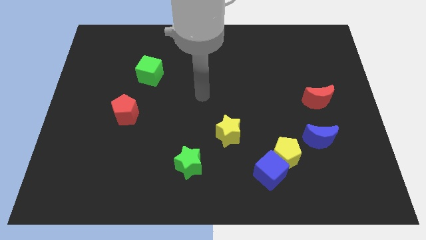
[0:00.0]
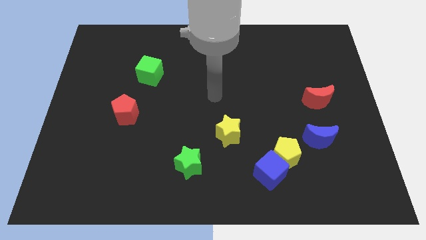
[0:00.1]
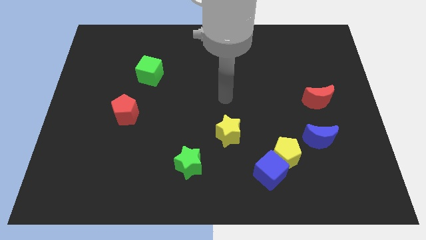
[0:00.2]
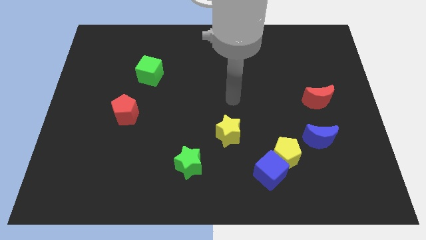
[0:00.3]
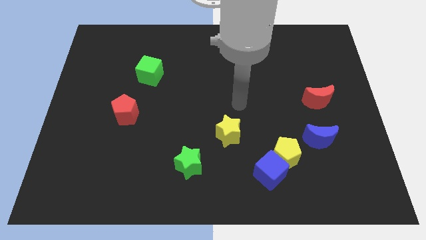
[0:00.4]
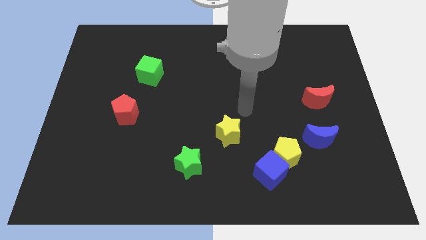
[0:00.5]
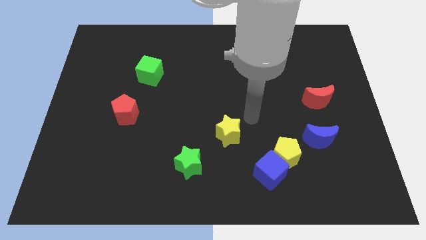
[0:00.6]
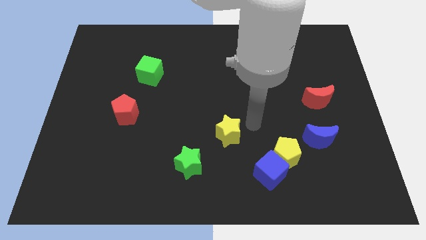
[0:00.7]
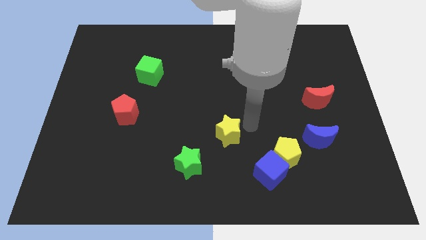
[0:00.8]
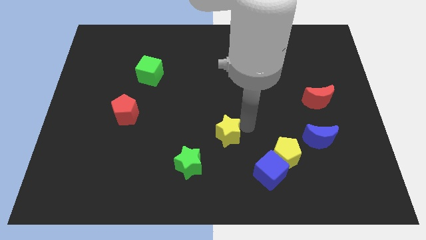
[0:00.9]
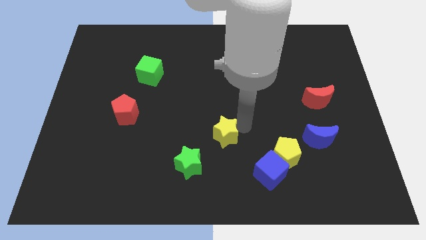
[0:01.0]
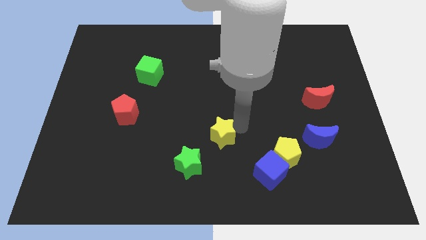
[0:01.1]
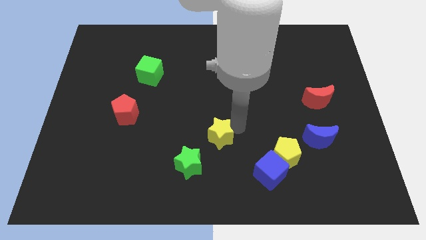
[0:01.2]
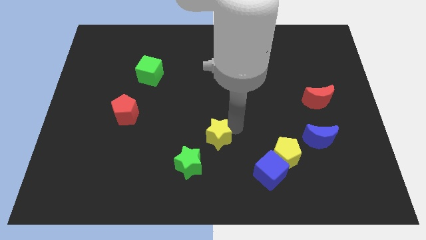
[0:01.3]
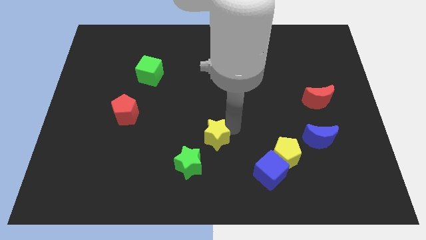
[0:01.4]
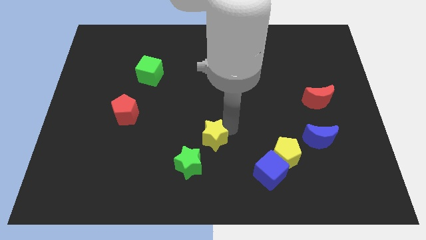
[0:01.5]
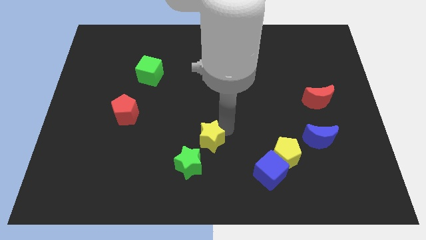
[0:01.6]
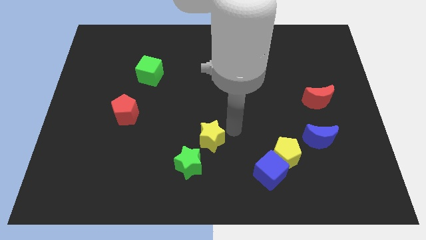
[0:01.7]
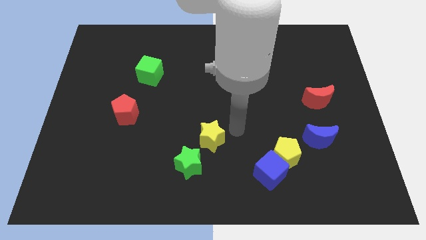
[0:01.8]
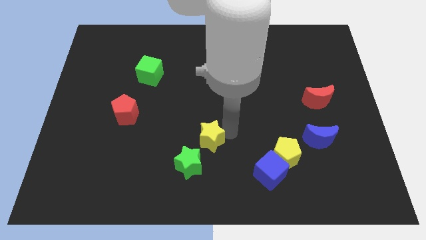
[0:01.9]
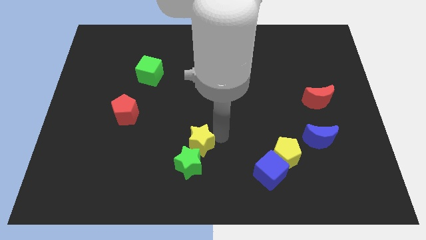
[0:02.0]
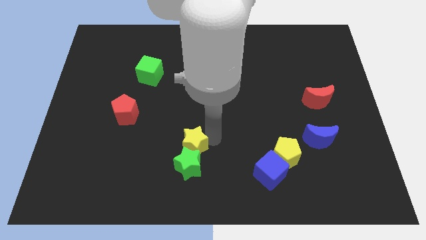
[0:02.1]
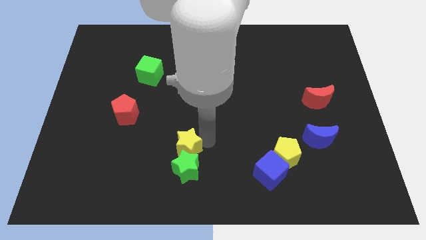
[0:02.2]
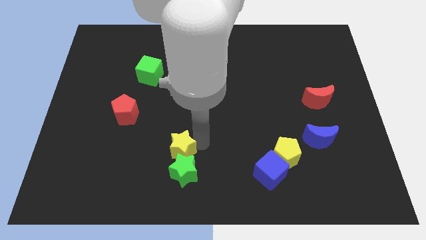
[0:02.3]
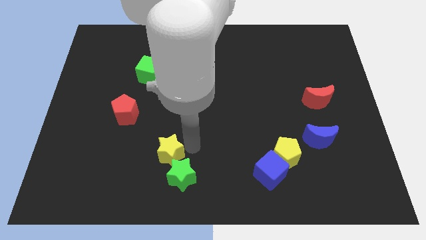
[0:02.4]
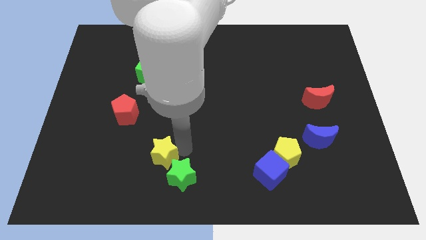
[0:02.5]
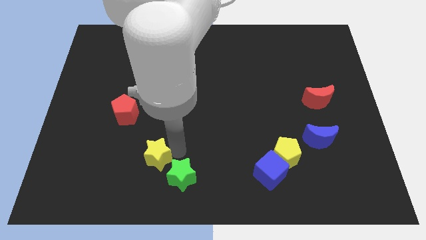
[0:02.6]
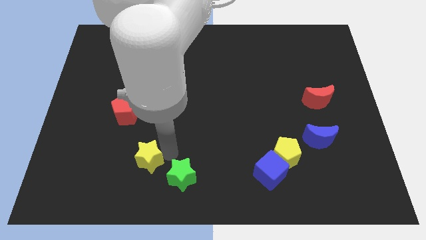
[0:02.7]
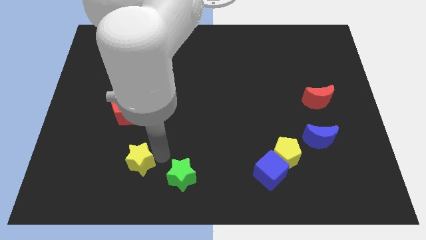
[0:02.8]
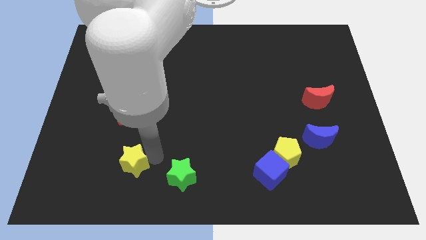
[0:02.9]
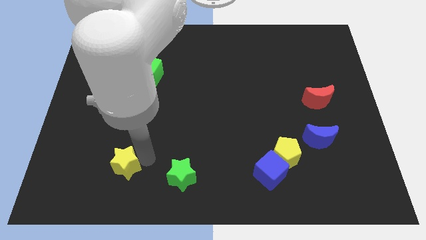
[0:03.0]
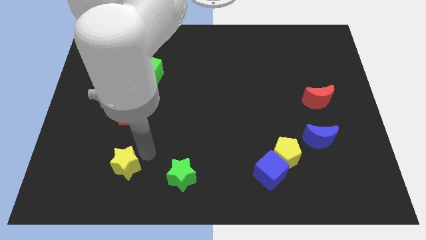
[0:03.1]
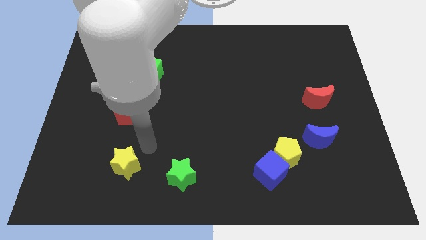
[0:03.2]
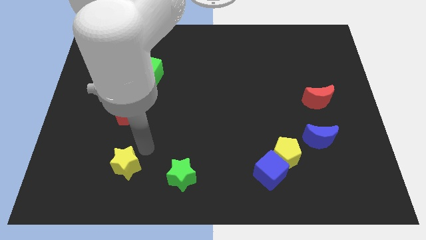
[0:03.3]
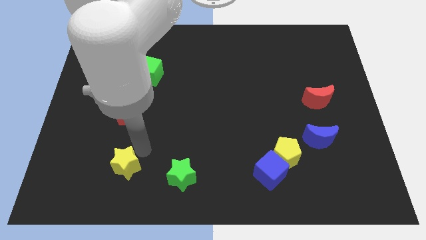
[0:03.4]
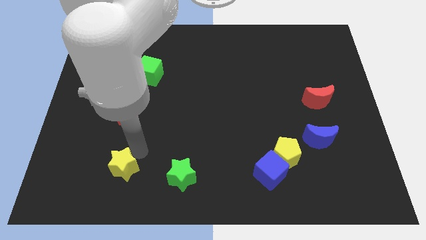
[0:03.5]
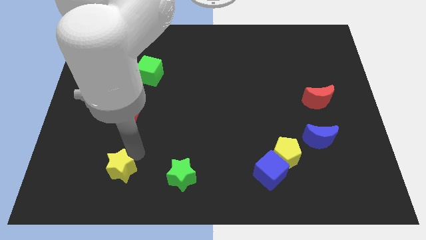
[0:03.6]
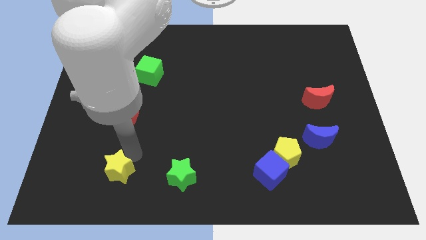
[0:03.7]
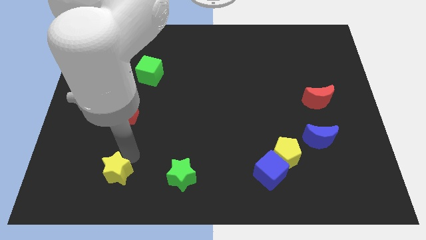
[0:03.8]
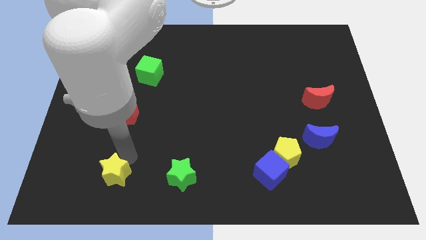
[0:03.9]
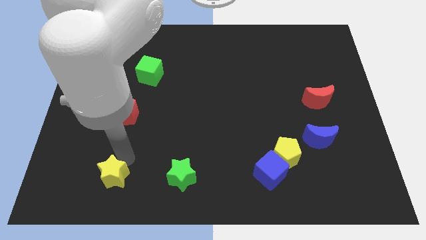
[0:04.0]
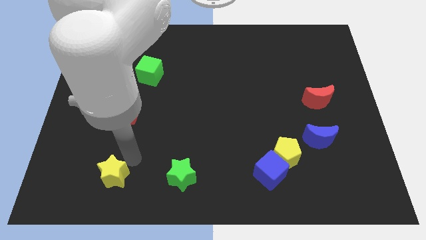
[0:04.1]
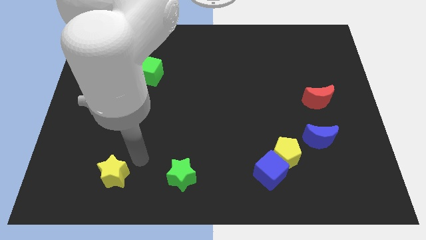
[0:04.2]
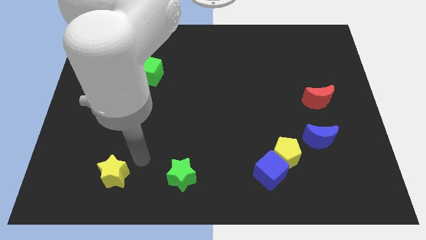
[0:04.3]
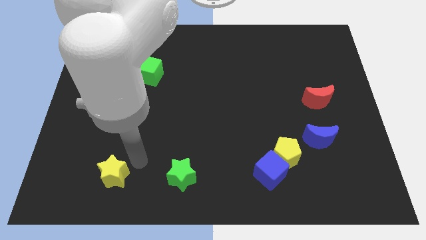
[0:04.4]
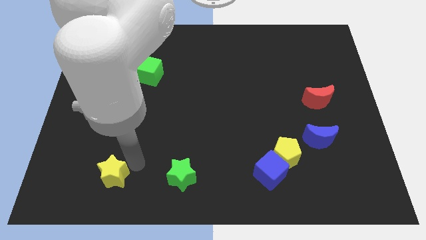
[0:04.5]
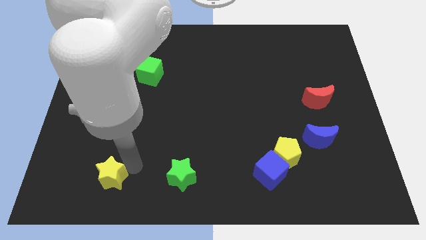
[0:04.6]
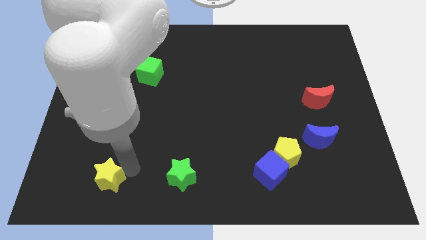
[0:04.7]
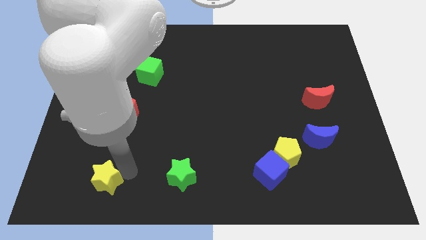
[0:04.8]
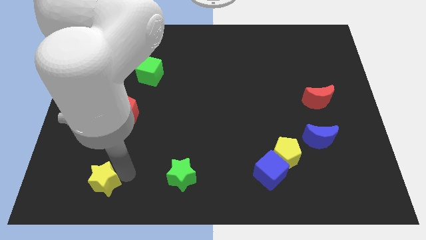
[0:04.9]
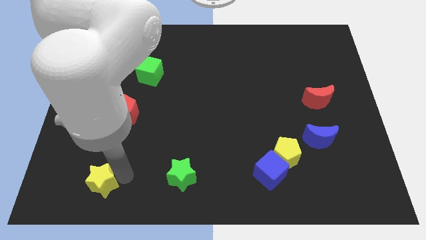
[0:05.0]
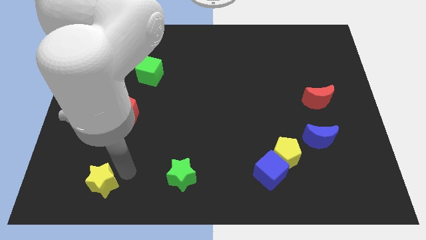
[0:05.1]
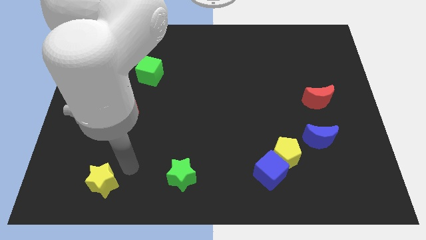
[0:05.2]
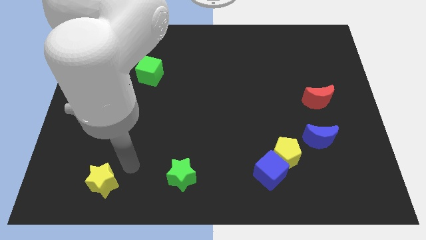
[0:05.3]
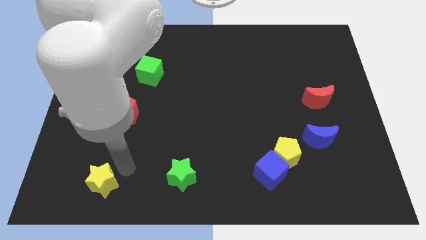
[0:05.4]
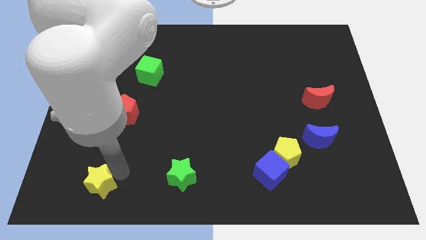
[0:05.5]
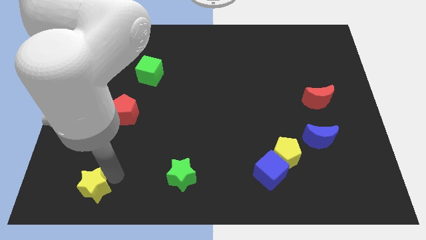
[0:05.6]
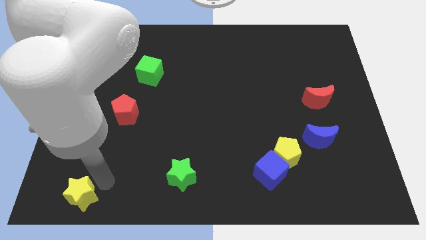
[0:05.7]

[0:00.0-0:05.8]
put the yellow star to the bottom left
